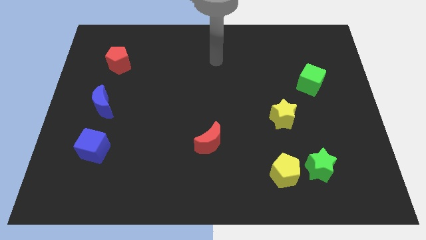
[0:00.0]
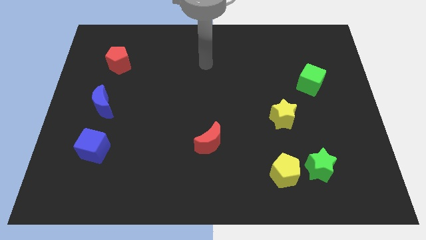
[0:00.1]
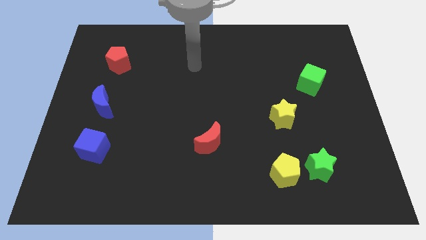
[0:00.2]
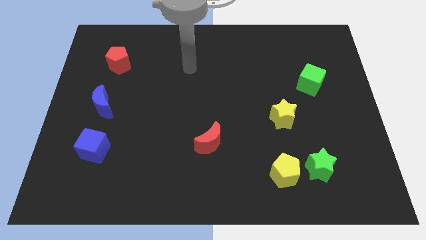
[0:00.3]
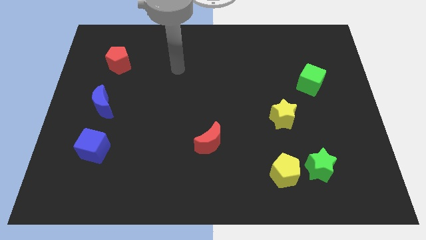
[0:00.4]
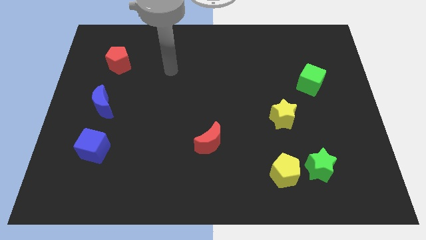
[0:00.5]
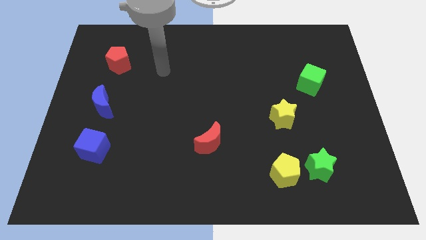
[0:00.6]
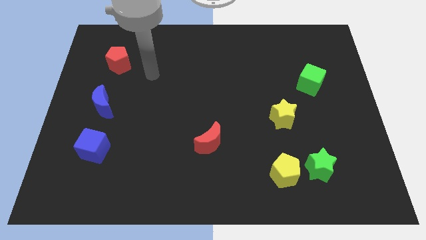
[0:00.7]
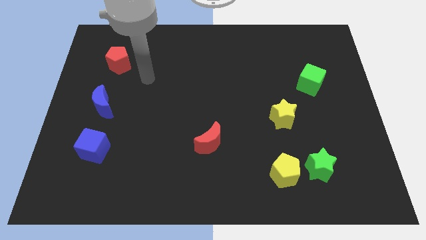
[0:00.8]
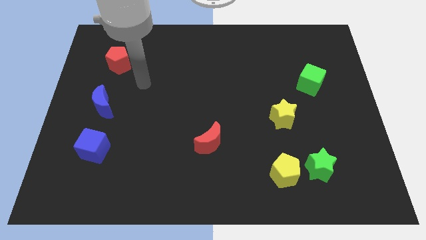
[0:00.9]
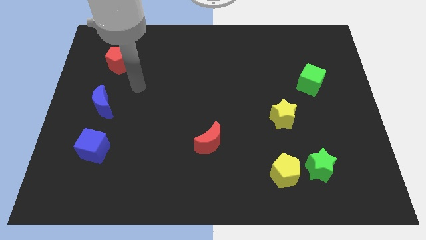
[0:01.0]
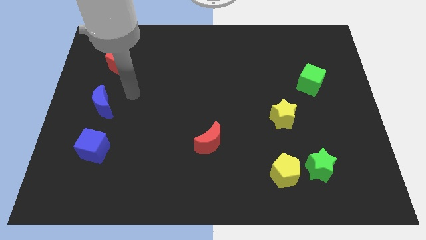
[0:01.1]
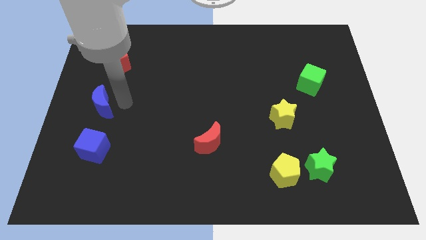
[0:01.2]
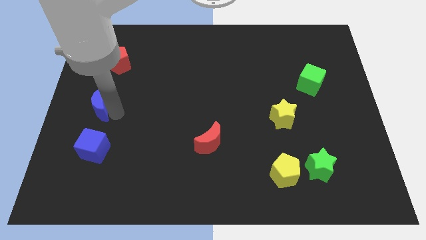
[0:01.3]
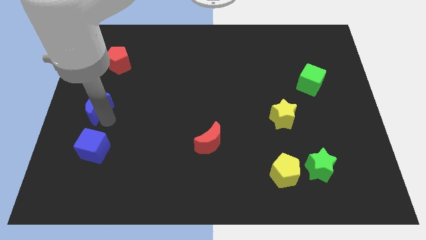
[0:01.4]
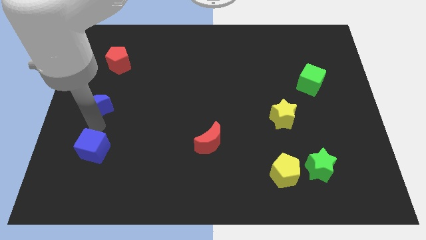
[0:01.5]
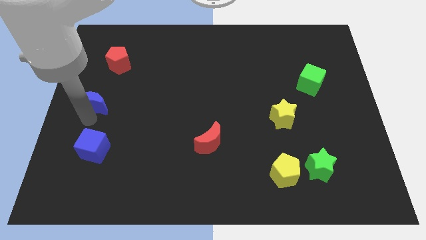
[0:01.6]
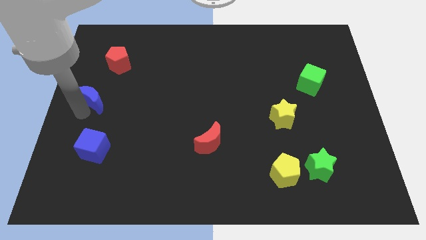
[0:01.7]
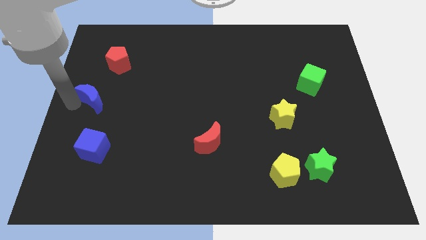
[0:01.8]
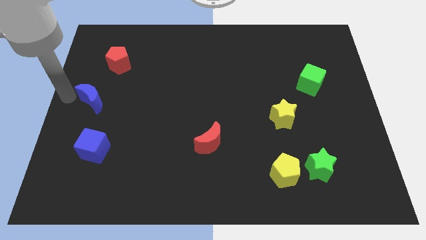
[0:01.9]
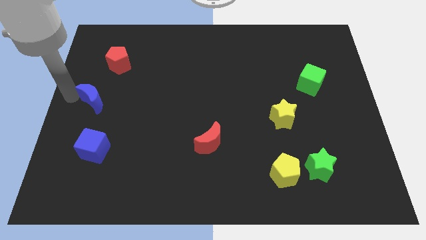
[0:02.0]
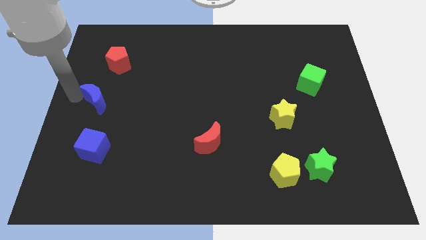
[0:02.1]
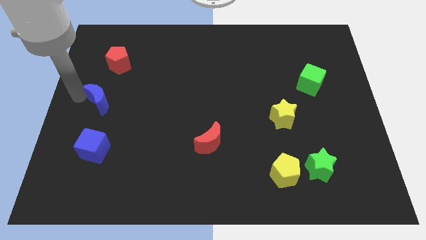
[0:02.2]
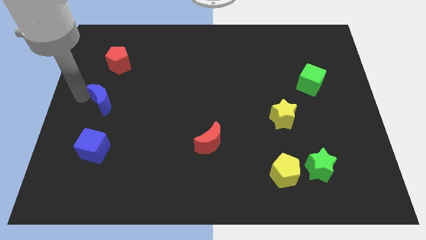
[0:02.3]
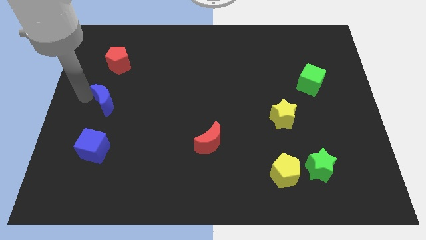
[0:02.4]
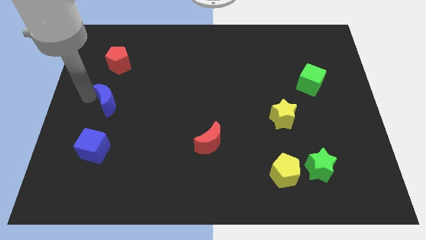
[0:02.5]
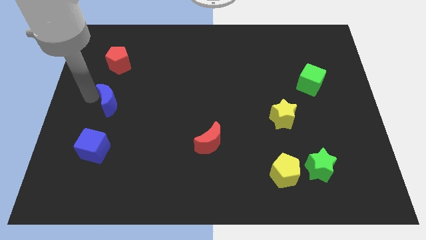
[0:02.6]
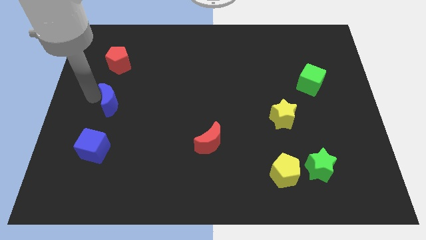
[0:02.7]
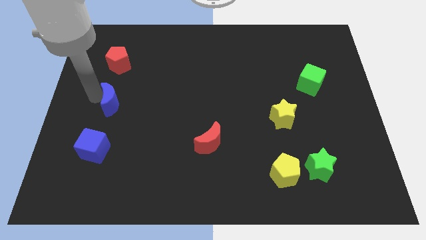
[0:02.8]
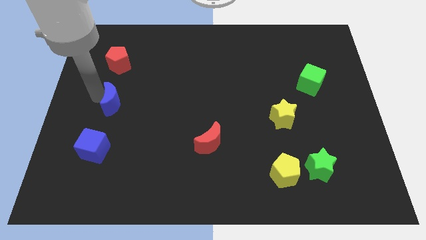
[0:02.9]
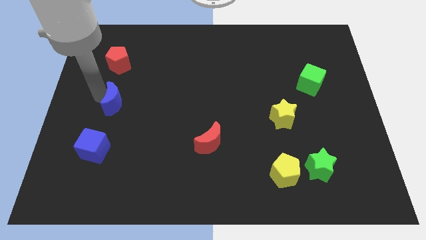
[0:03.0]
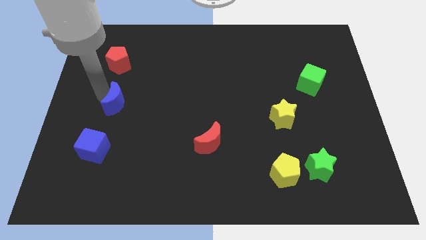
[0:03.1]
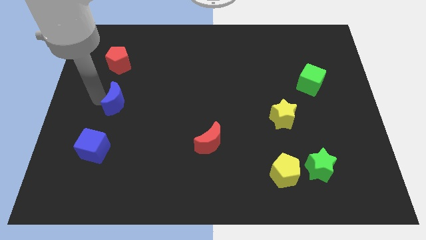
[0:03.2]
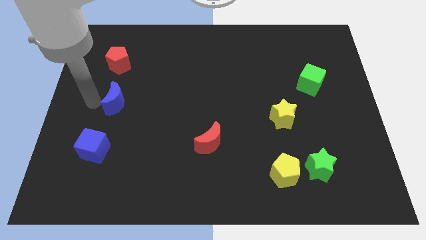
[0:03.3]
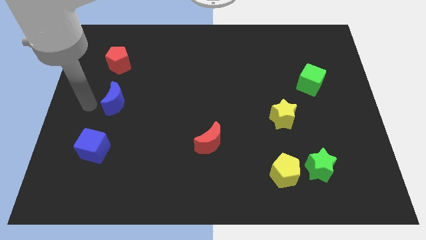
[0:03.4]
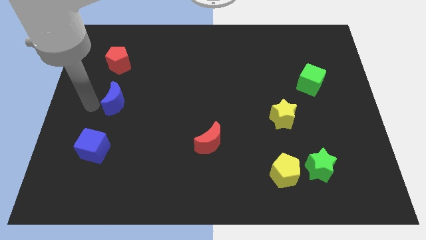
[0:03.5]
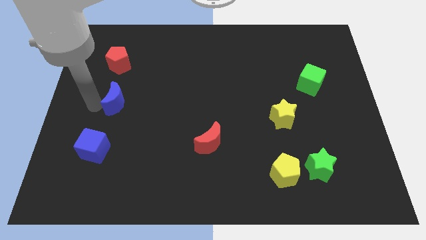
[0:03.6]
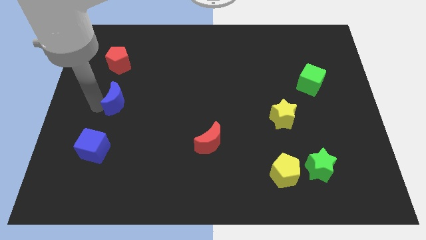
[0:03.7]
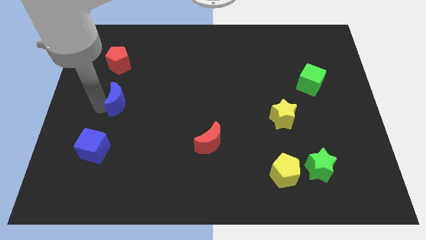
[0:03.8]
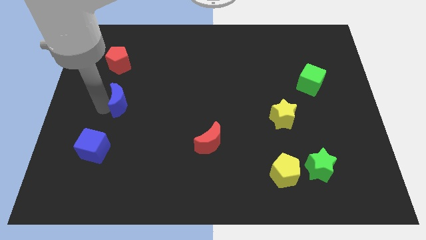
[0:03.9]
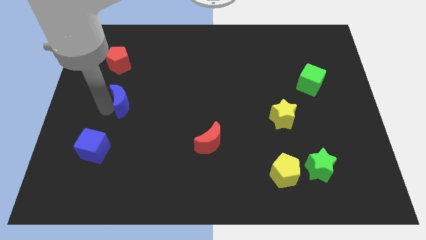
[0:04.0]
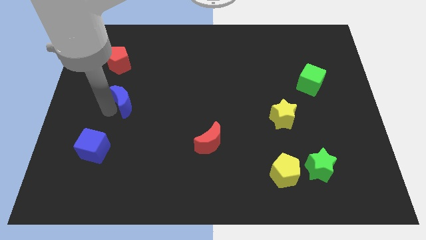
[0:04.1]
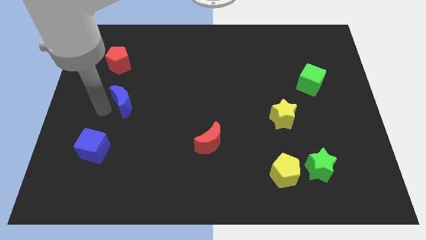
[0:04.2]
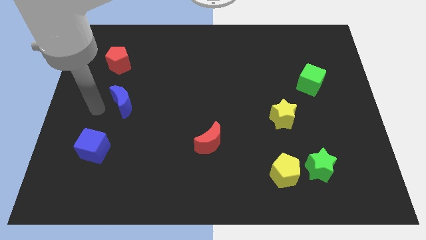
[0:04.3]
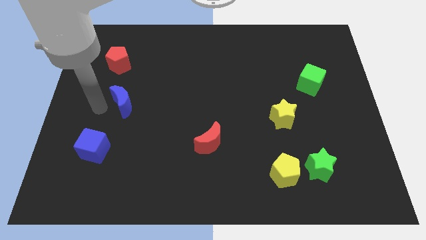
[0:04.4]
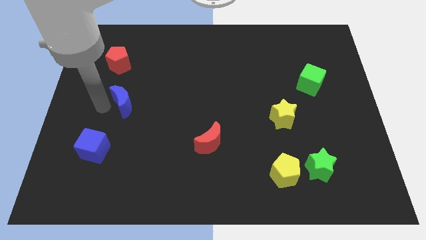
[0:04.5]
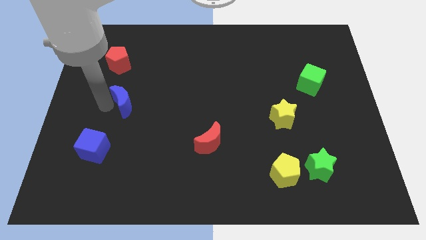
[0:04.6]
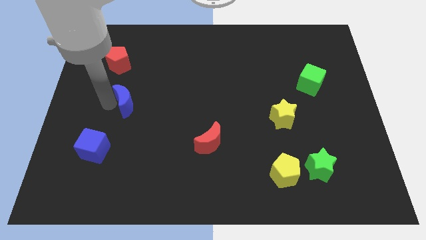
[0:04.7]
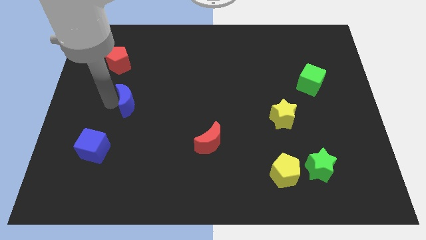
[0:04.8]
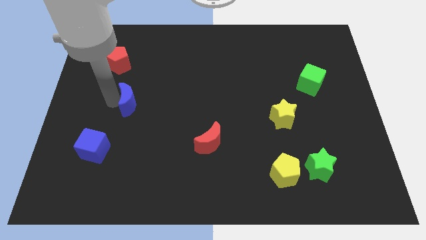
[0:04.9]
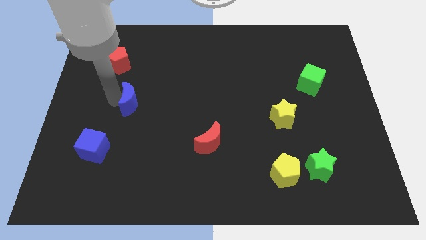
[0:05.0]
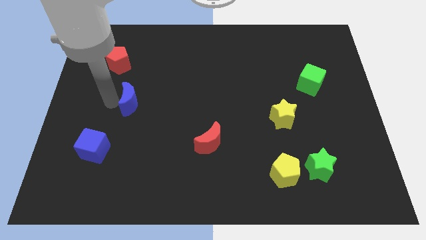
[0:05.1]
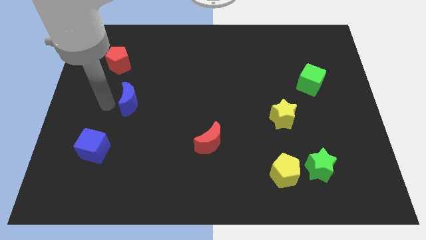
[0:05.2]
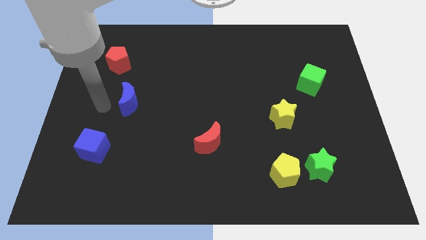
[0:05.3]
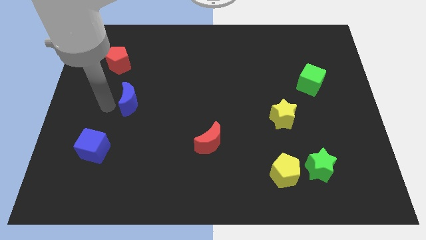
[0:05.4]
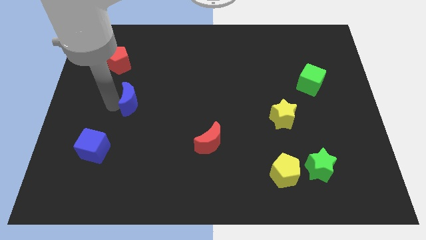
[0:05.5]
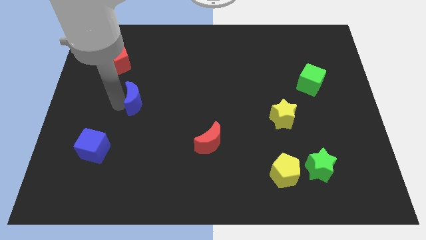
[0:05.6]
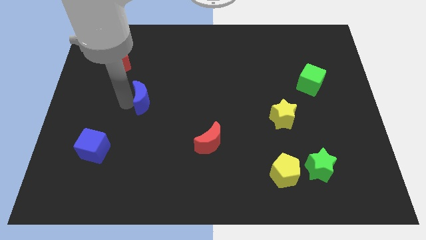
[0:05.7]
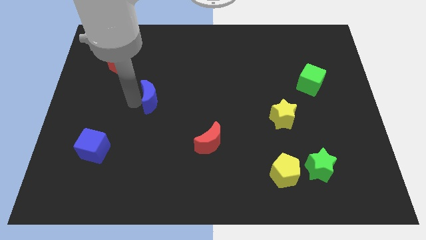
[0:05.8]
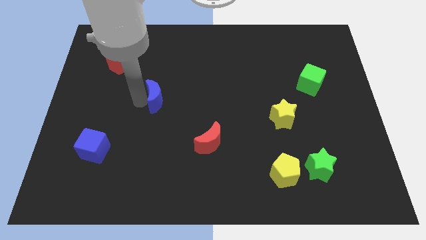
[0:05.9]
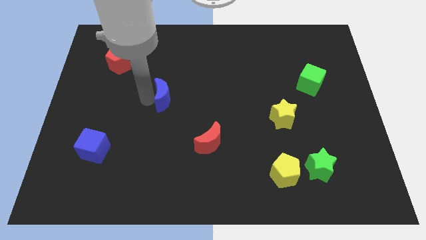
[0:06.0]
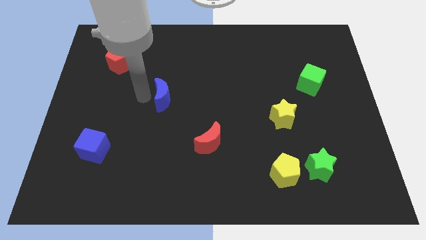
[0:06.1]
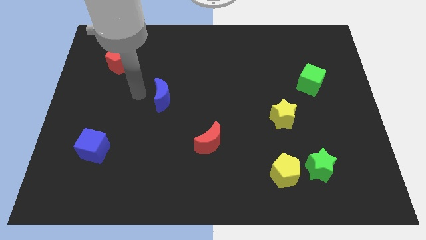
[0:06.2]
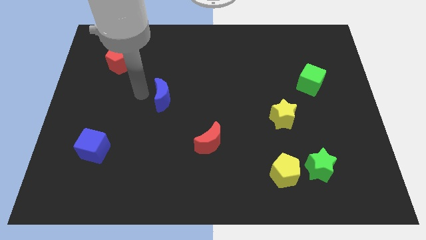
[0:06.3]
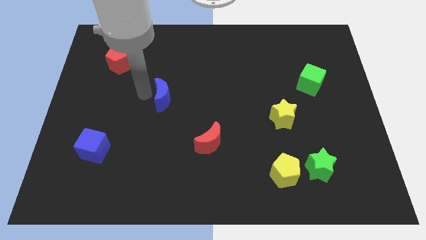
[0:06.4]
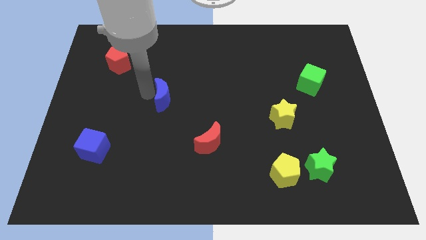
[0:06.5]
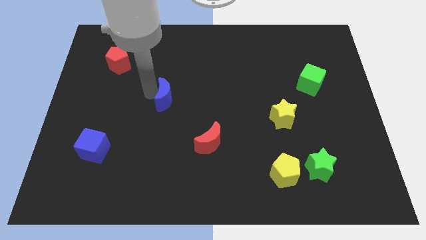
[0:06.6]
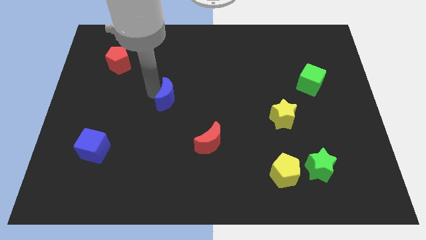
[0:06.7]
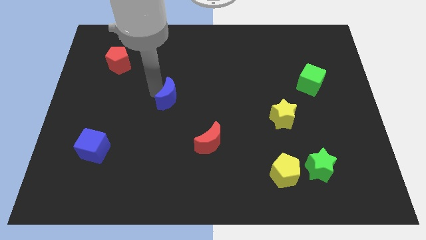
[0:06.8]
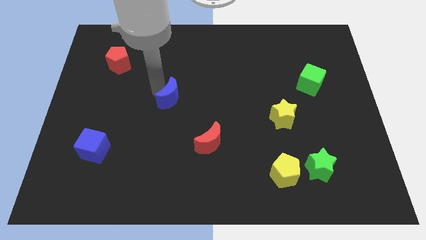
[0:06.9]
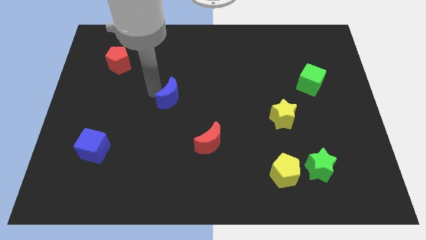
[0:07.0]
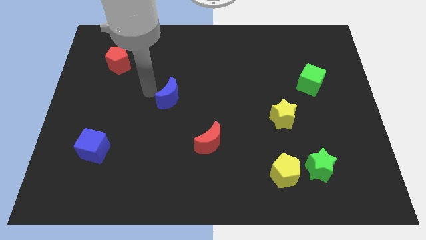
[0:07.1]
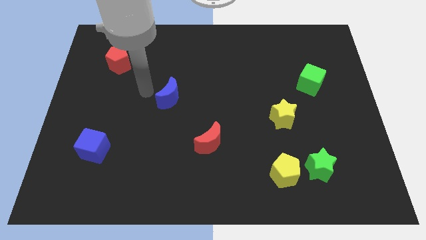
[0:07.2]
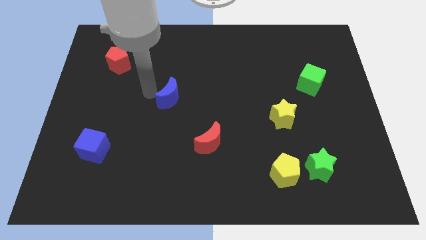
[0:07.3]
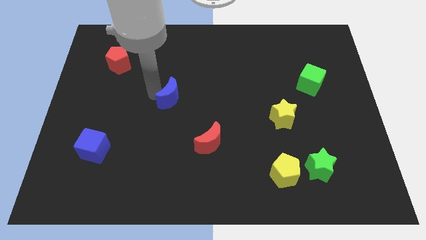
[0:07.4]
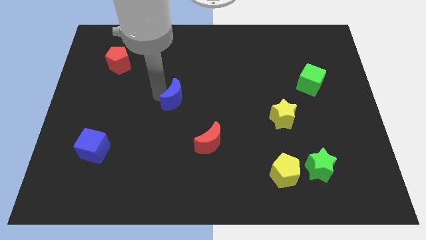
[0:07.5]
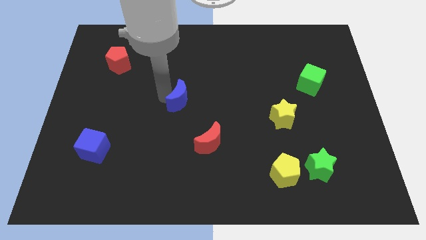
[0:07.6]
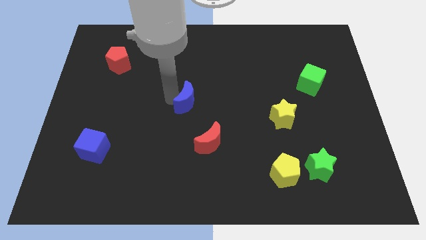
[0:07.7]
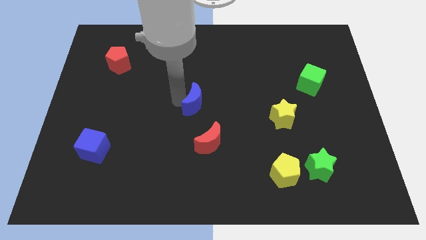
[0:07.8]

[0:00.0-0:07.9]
move the blue moon to the top side of the red moon
